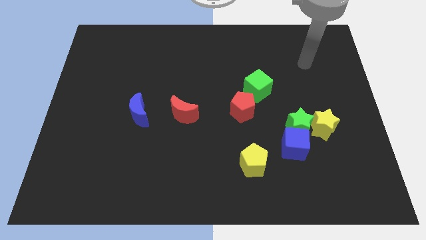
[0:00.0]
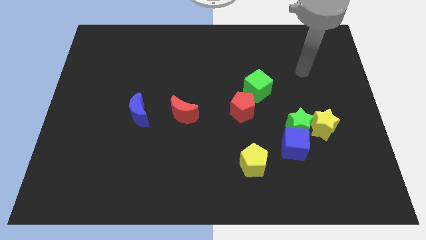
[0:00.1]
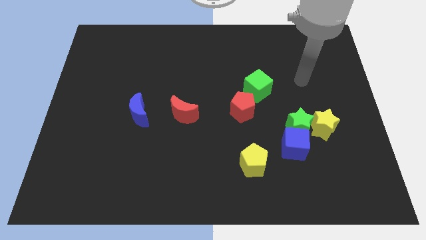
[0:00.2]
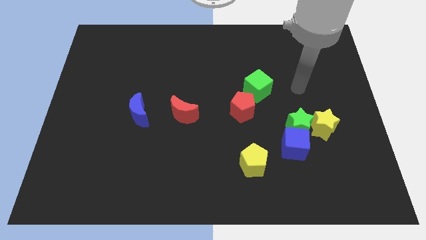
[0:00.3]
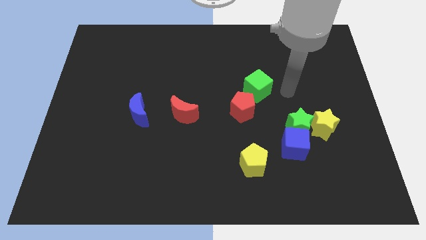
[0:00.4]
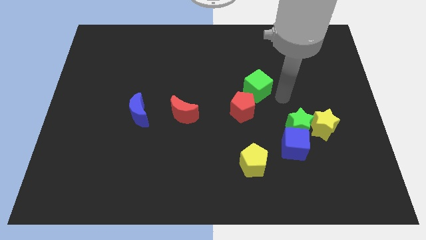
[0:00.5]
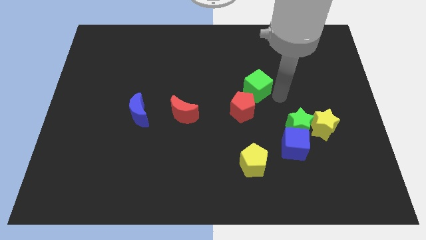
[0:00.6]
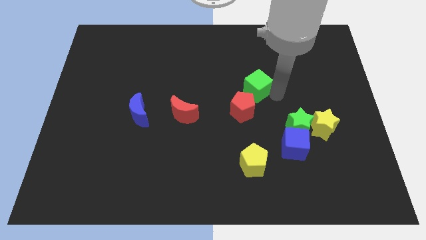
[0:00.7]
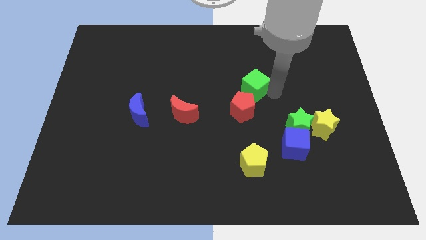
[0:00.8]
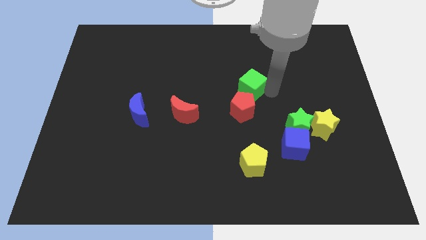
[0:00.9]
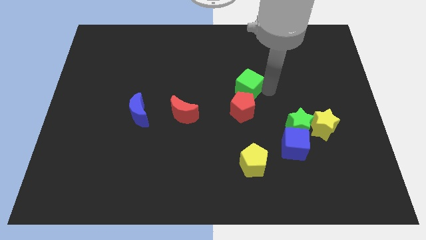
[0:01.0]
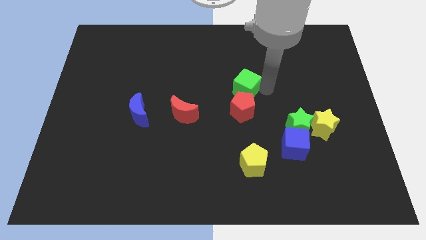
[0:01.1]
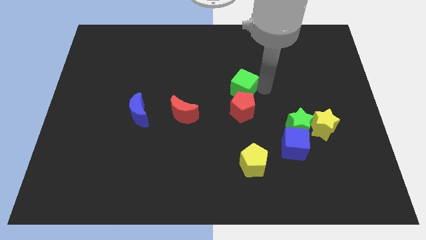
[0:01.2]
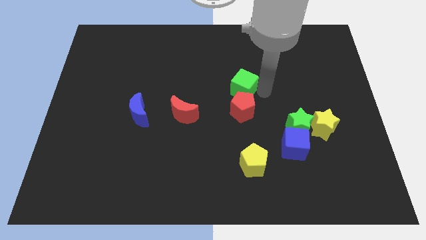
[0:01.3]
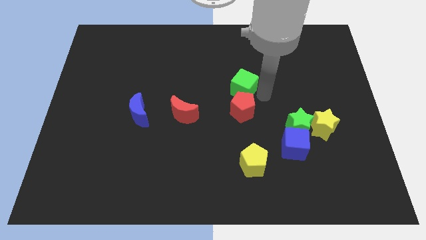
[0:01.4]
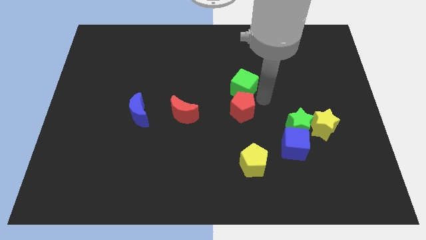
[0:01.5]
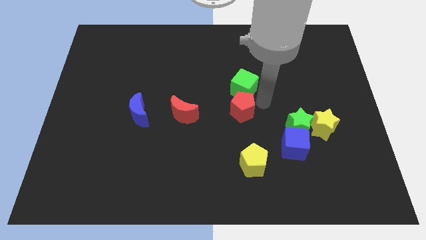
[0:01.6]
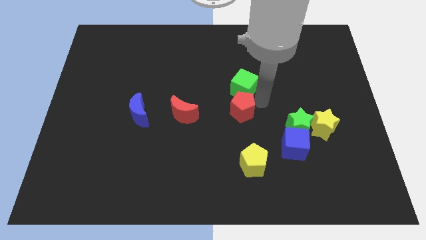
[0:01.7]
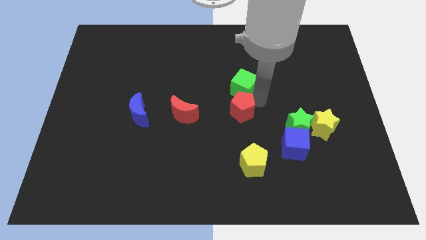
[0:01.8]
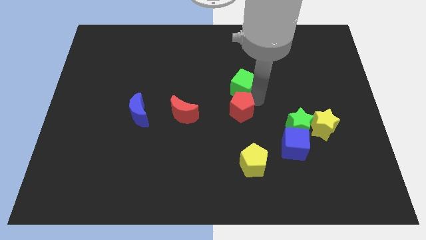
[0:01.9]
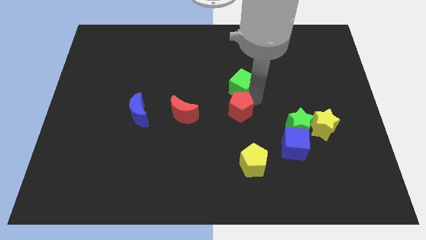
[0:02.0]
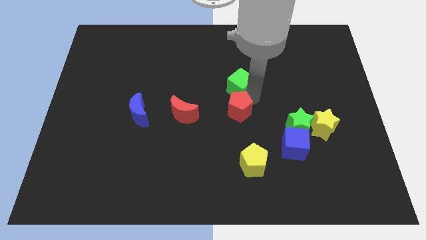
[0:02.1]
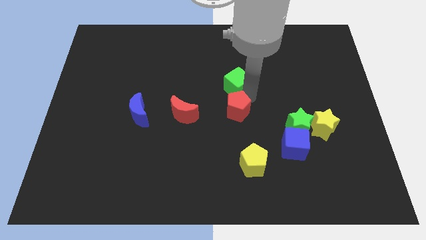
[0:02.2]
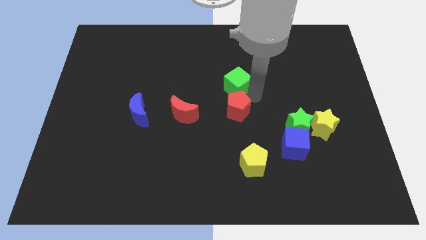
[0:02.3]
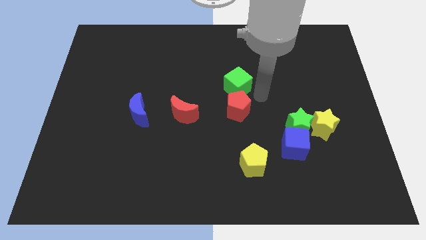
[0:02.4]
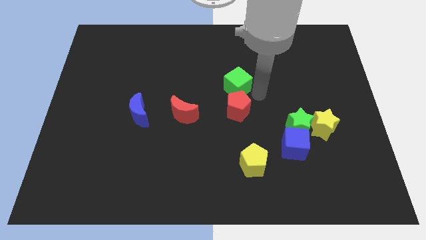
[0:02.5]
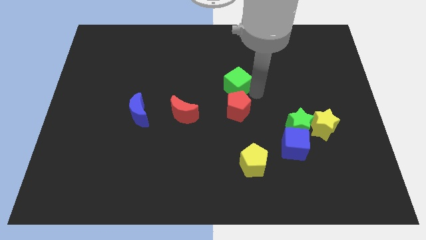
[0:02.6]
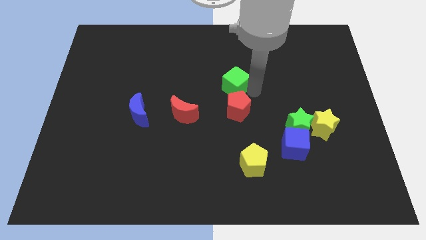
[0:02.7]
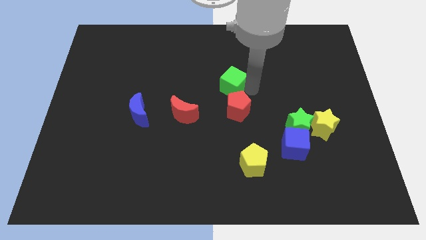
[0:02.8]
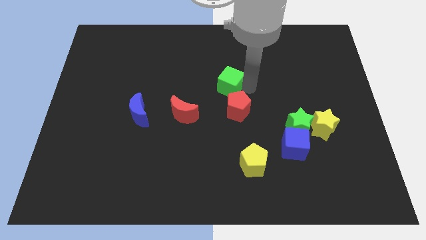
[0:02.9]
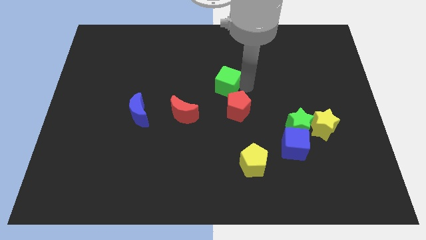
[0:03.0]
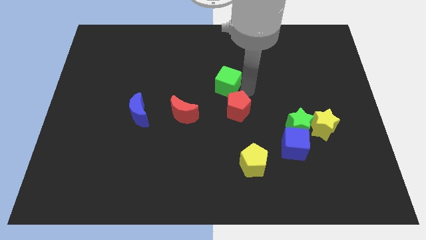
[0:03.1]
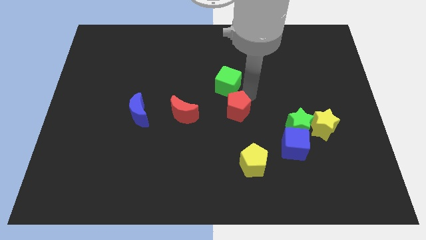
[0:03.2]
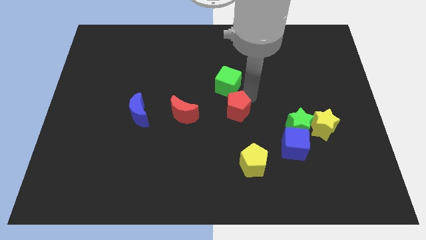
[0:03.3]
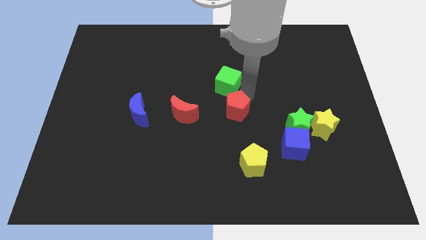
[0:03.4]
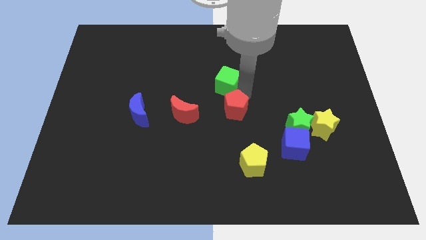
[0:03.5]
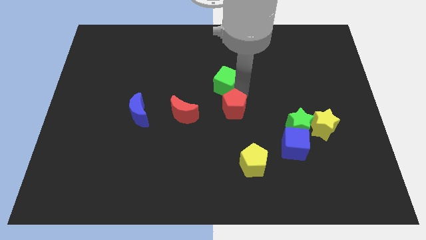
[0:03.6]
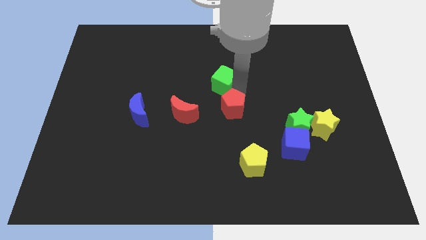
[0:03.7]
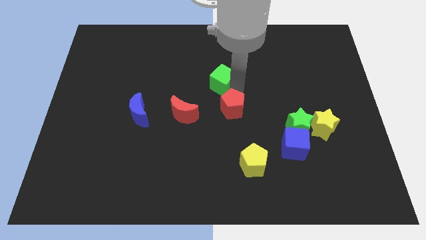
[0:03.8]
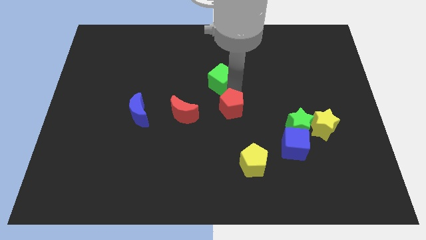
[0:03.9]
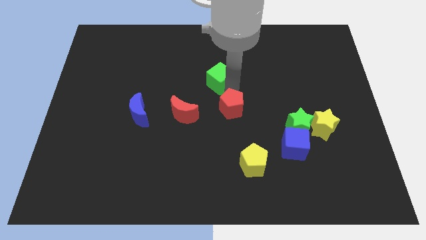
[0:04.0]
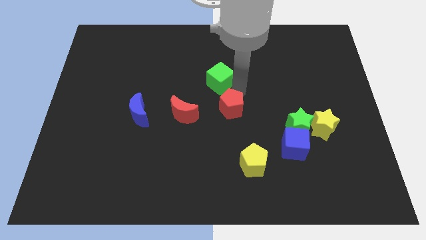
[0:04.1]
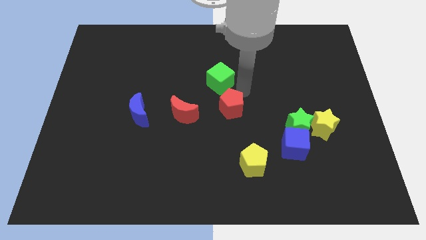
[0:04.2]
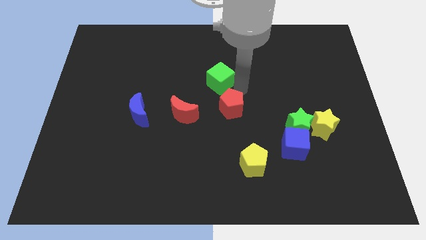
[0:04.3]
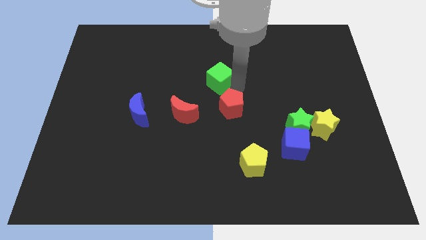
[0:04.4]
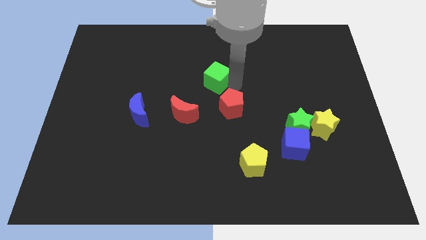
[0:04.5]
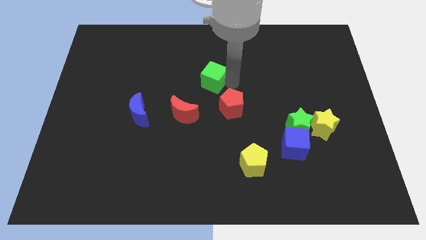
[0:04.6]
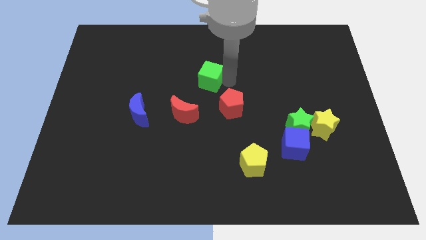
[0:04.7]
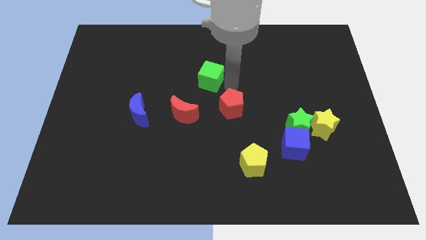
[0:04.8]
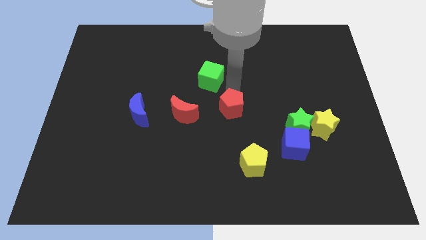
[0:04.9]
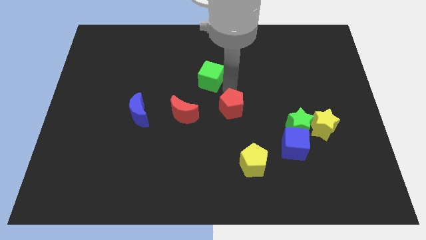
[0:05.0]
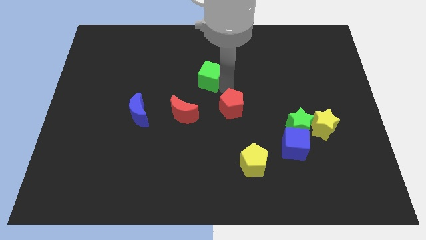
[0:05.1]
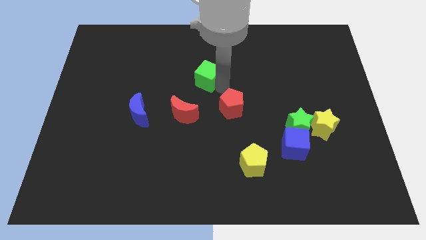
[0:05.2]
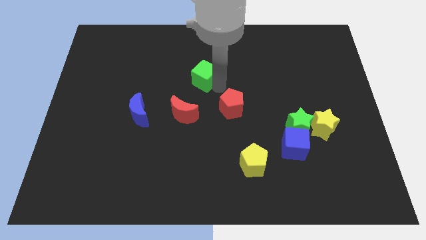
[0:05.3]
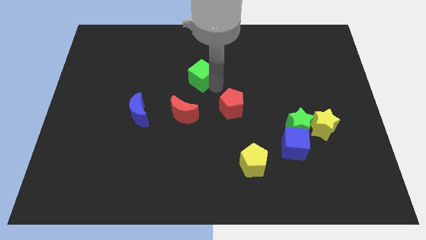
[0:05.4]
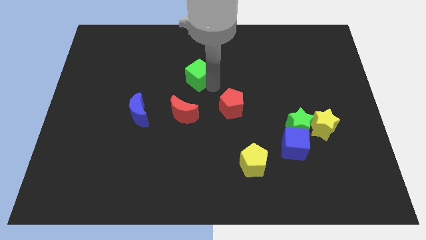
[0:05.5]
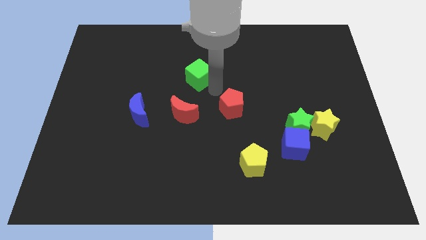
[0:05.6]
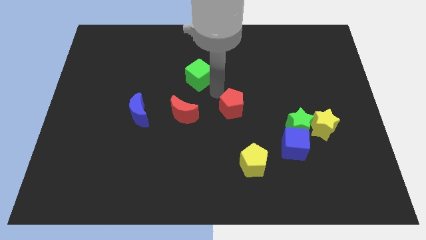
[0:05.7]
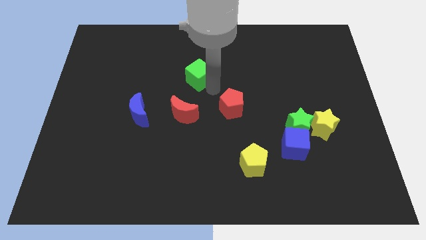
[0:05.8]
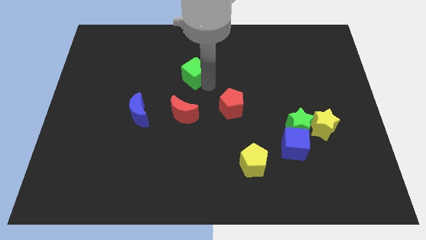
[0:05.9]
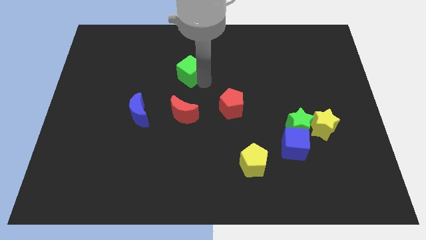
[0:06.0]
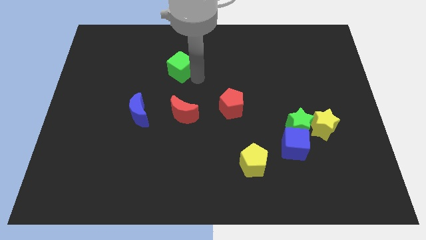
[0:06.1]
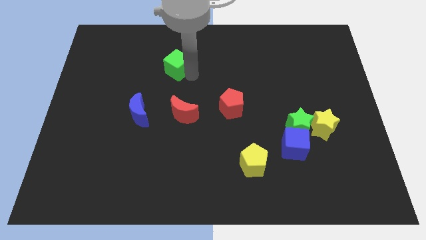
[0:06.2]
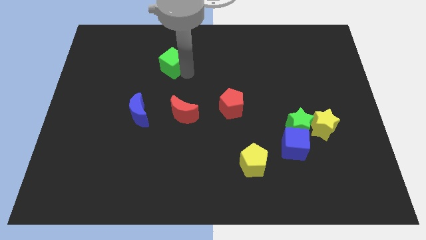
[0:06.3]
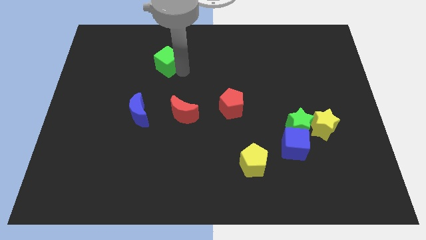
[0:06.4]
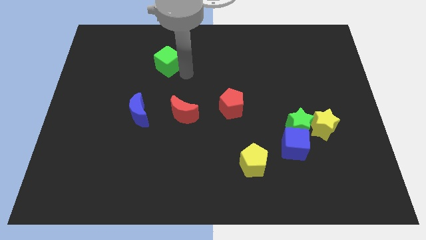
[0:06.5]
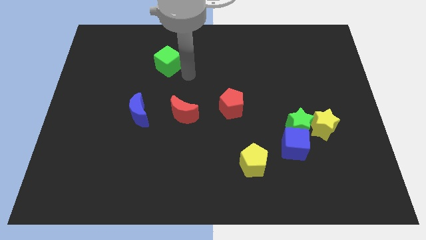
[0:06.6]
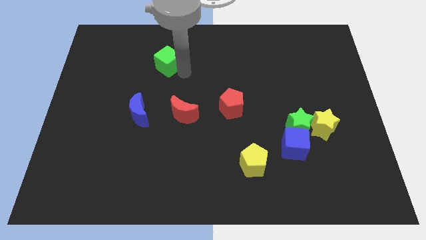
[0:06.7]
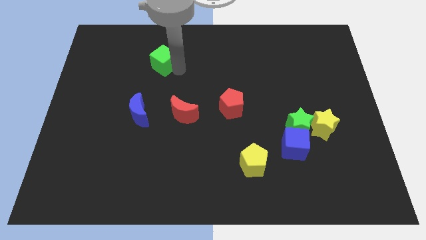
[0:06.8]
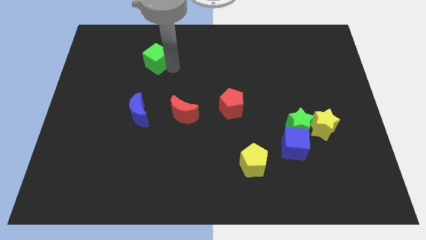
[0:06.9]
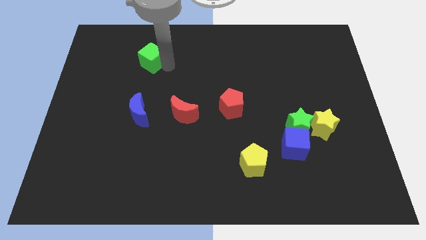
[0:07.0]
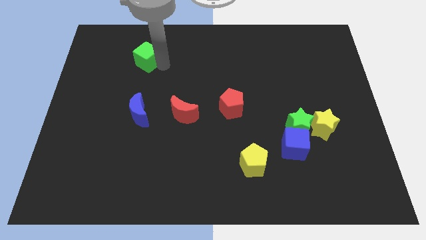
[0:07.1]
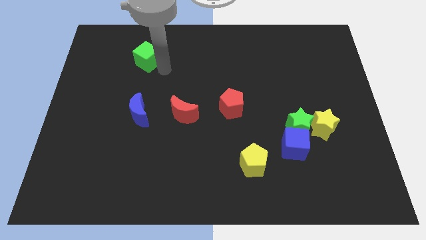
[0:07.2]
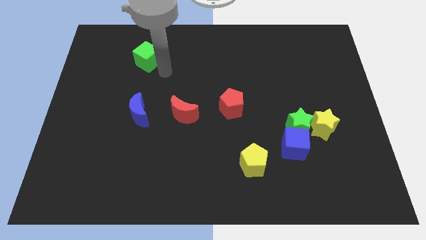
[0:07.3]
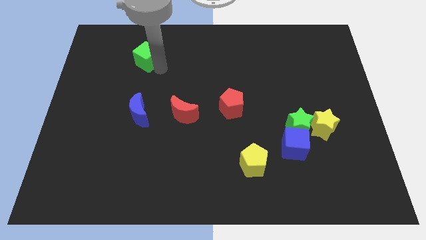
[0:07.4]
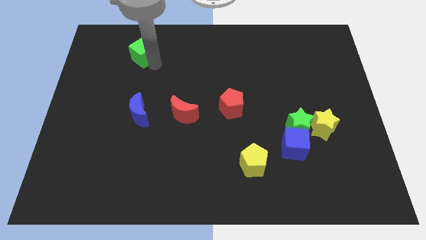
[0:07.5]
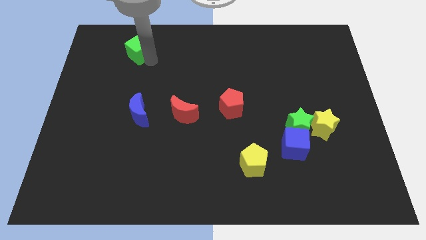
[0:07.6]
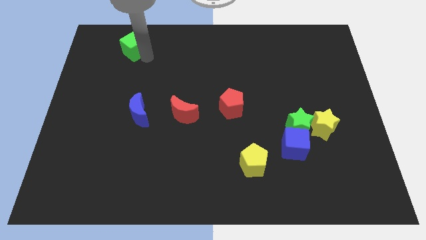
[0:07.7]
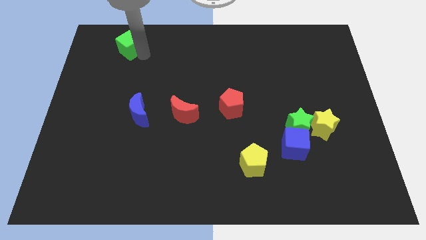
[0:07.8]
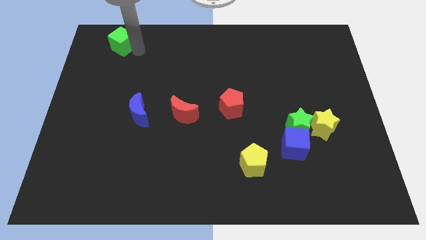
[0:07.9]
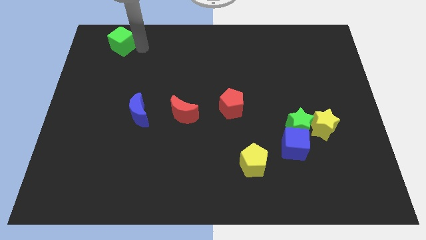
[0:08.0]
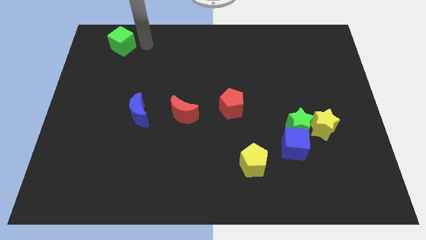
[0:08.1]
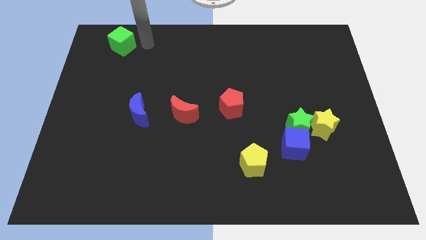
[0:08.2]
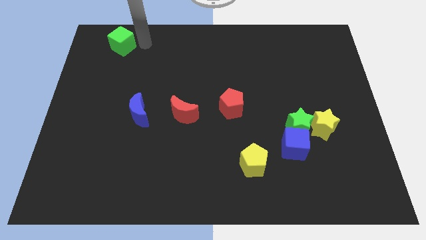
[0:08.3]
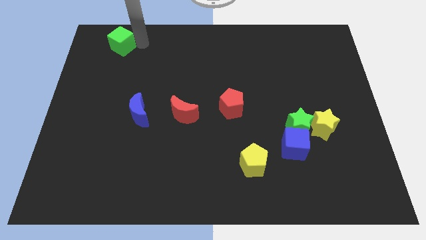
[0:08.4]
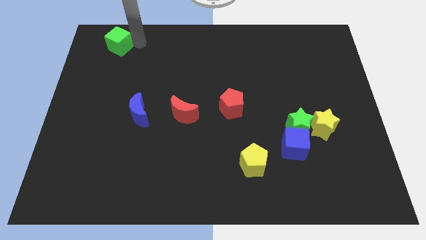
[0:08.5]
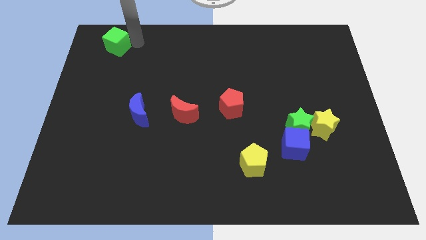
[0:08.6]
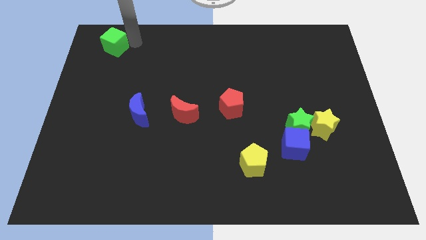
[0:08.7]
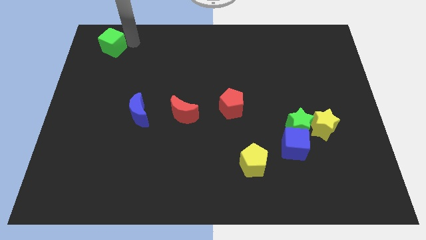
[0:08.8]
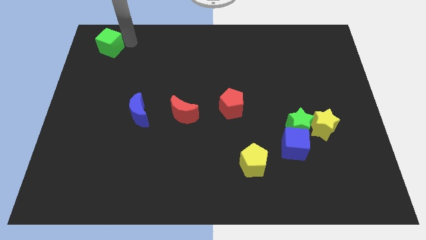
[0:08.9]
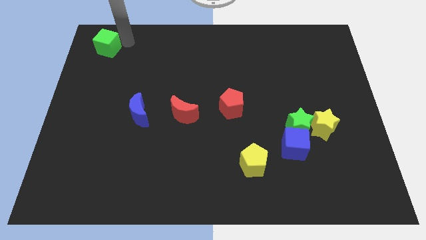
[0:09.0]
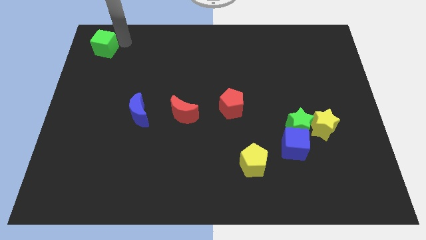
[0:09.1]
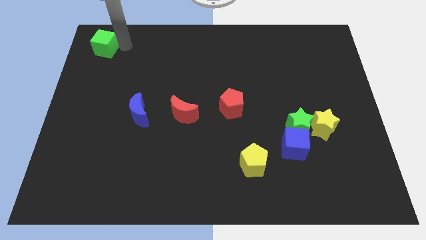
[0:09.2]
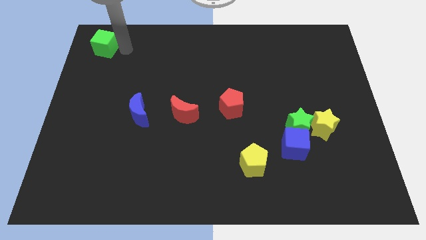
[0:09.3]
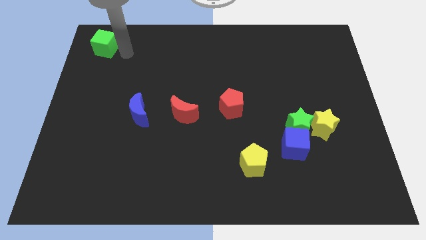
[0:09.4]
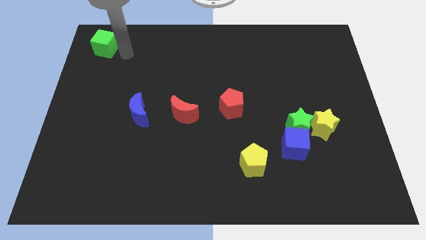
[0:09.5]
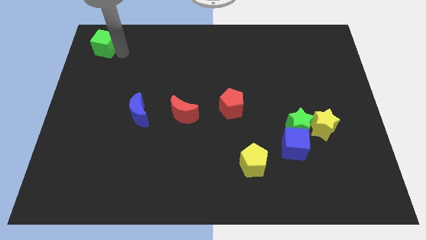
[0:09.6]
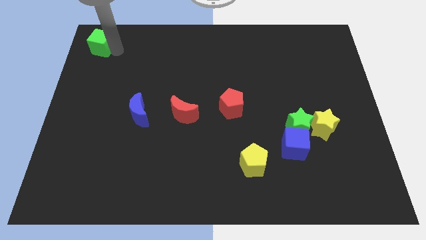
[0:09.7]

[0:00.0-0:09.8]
push the green cube to the upper left corner
